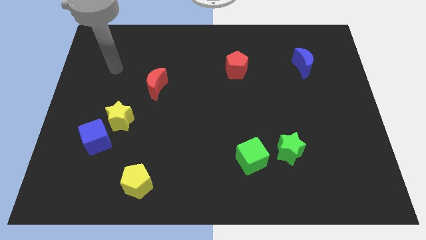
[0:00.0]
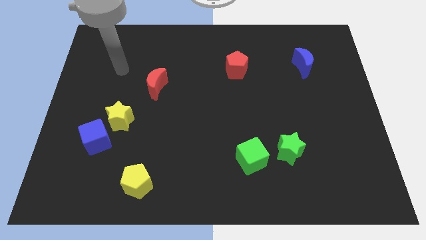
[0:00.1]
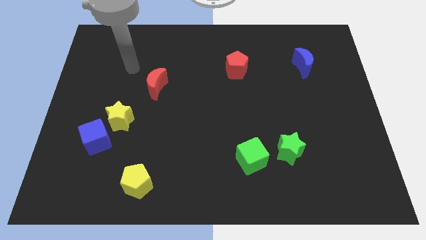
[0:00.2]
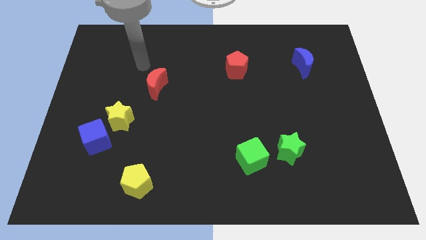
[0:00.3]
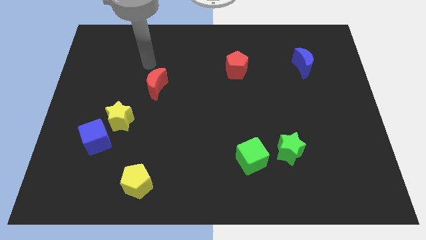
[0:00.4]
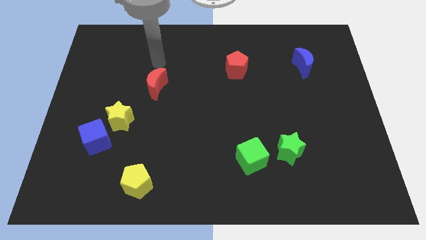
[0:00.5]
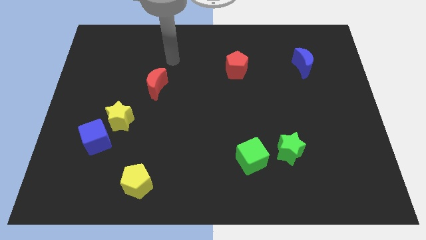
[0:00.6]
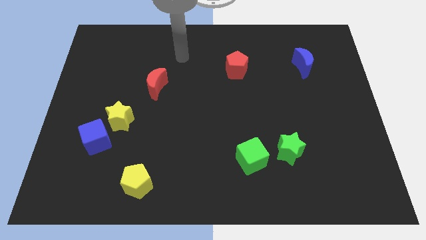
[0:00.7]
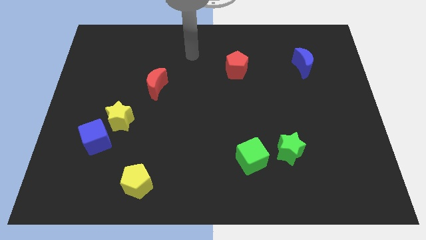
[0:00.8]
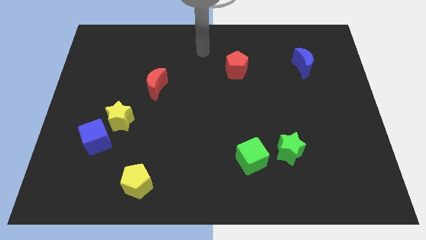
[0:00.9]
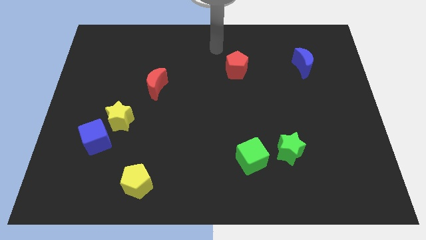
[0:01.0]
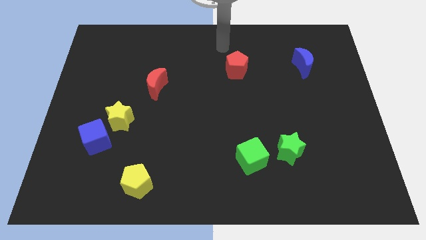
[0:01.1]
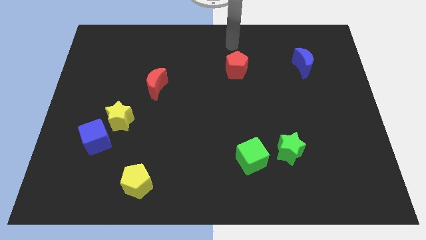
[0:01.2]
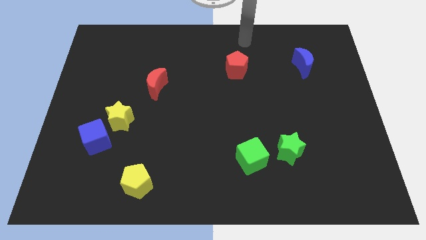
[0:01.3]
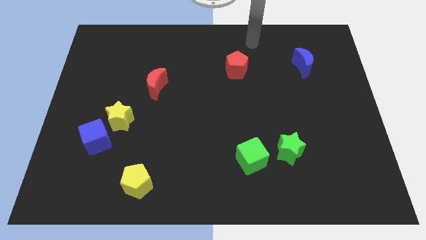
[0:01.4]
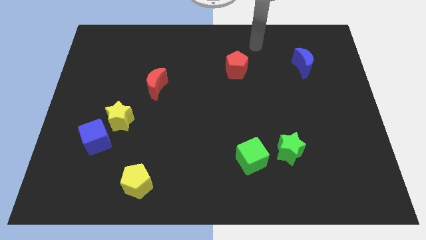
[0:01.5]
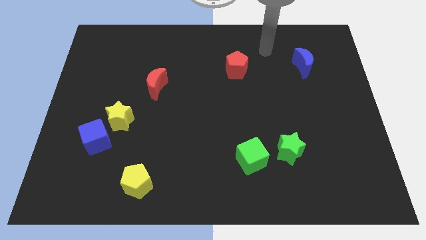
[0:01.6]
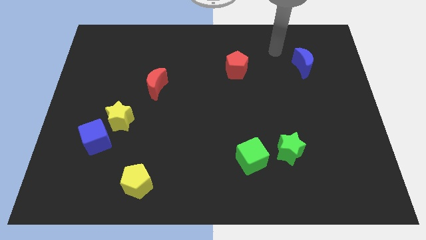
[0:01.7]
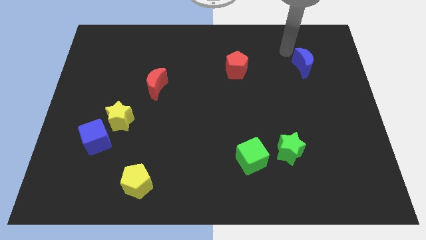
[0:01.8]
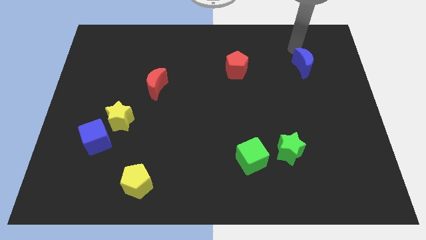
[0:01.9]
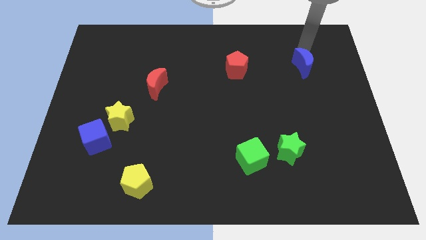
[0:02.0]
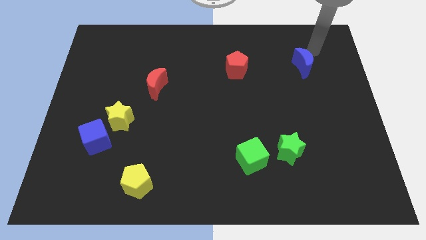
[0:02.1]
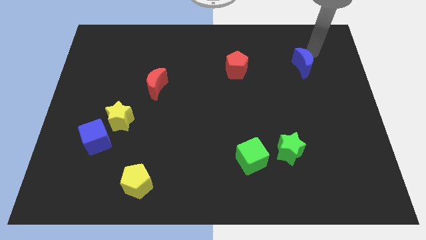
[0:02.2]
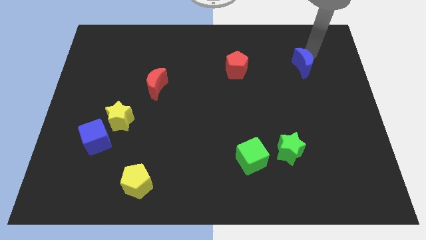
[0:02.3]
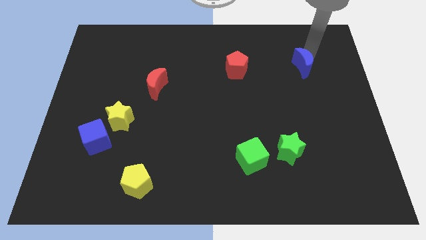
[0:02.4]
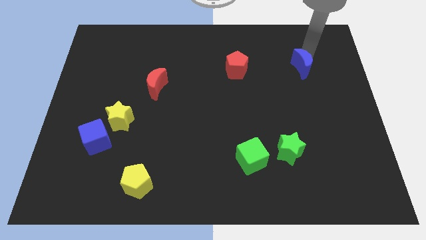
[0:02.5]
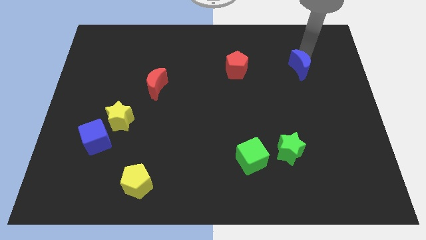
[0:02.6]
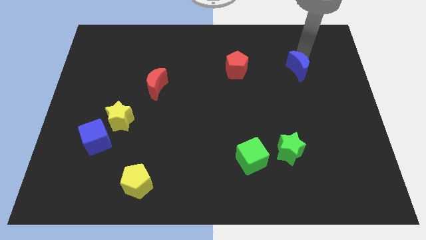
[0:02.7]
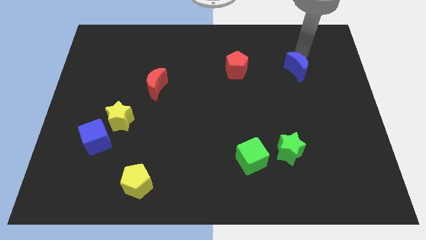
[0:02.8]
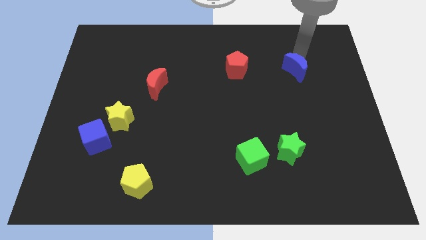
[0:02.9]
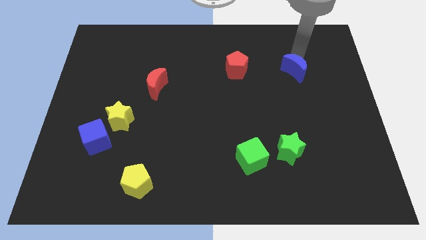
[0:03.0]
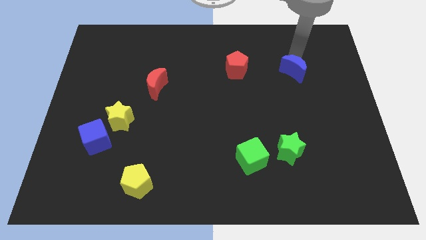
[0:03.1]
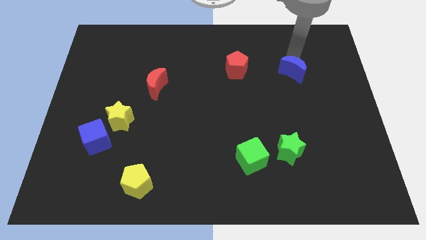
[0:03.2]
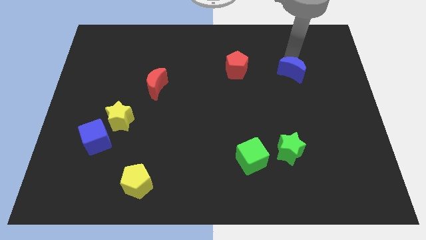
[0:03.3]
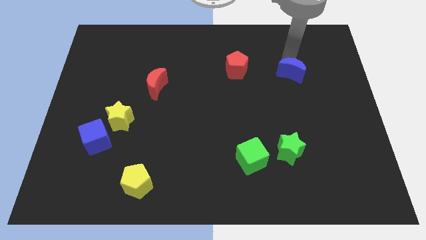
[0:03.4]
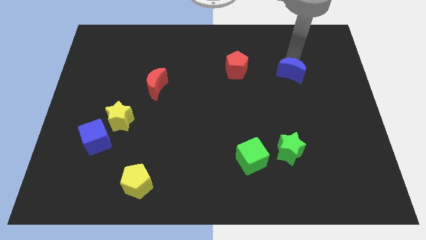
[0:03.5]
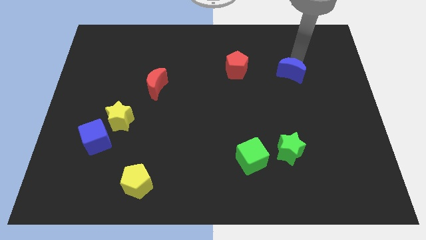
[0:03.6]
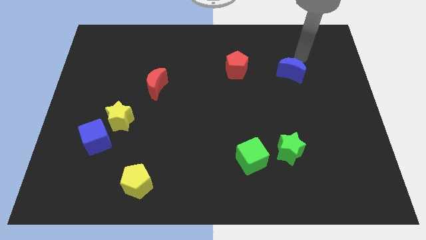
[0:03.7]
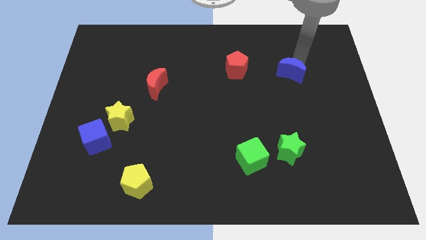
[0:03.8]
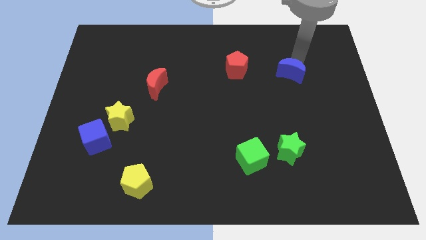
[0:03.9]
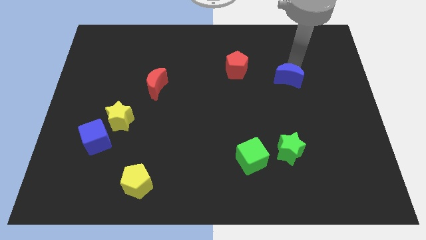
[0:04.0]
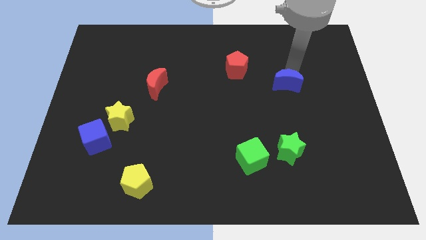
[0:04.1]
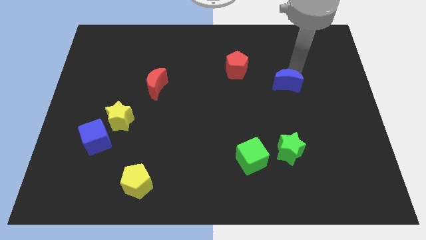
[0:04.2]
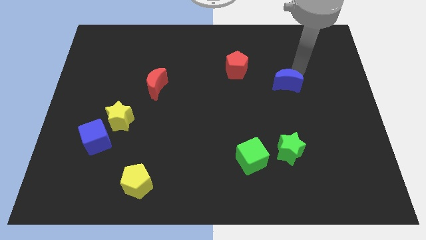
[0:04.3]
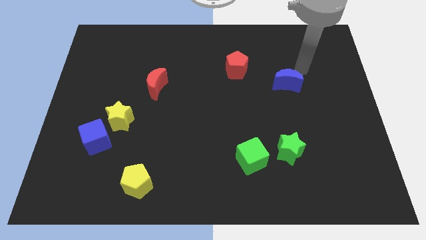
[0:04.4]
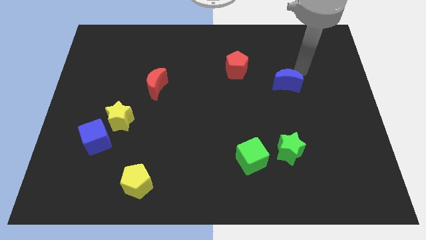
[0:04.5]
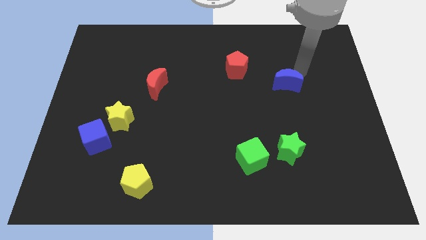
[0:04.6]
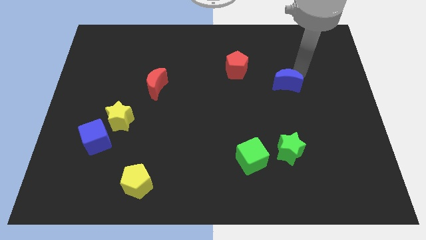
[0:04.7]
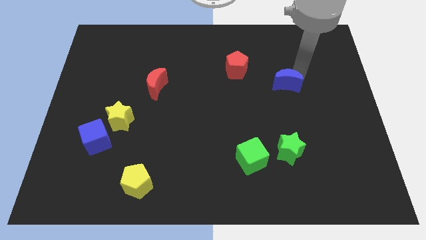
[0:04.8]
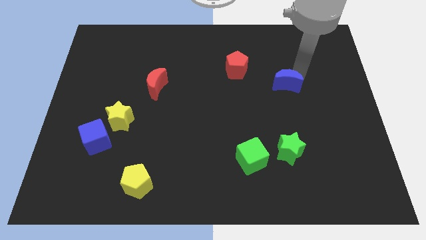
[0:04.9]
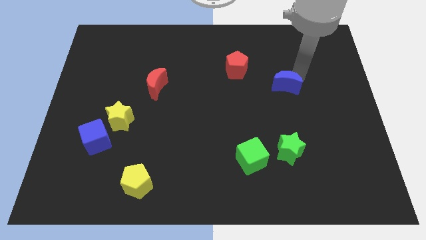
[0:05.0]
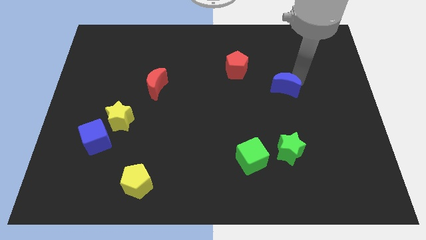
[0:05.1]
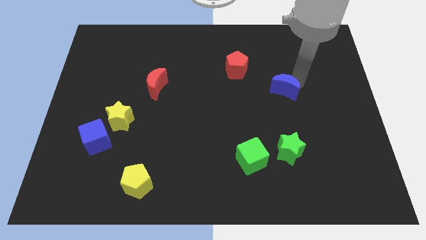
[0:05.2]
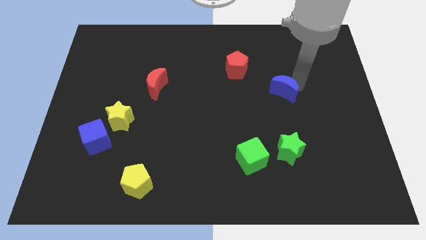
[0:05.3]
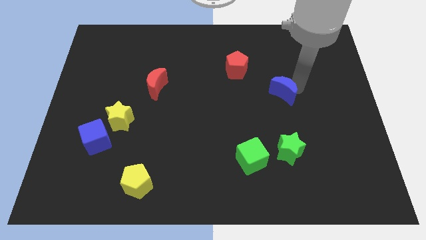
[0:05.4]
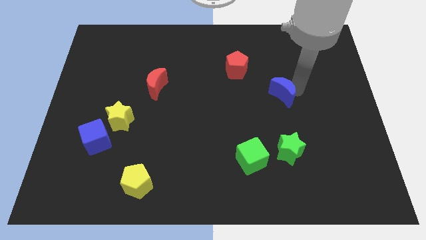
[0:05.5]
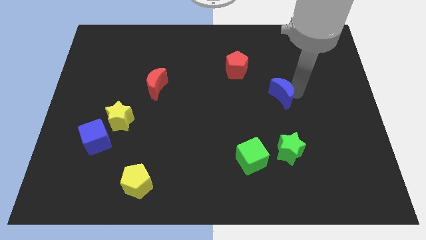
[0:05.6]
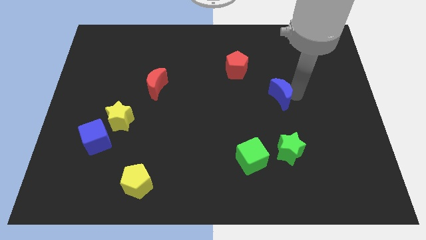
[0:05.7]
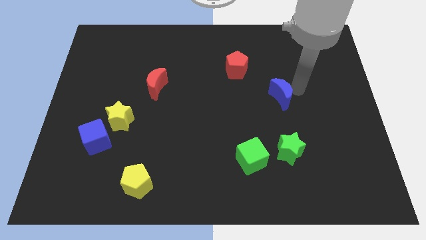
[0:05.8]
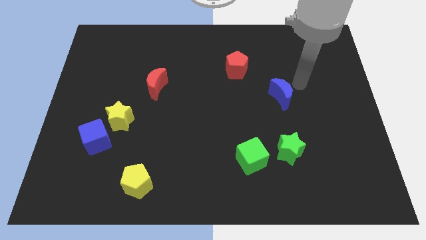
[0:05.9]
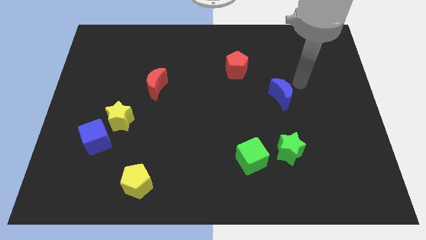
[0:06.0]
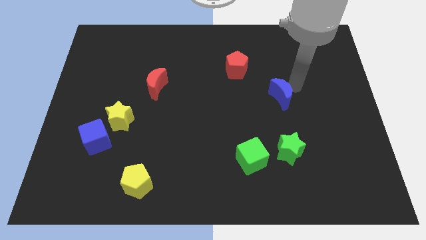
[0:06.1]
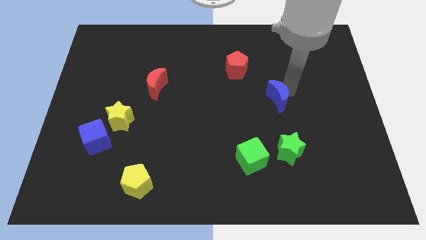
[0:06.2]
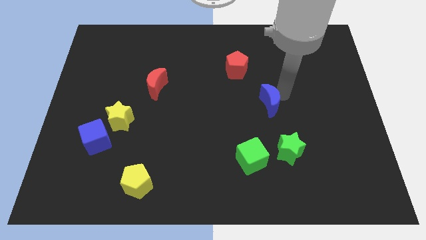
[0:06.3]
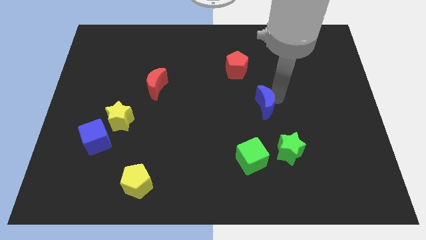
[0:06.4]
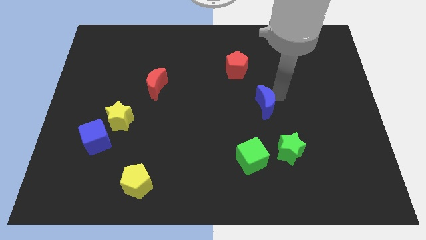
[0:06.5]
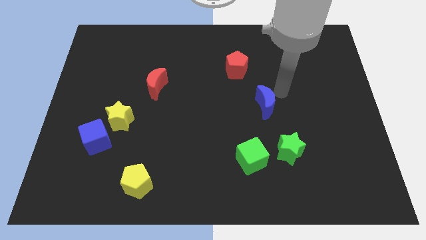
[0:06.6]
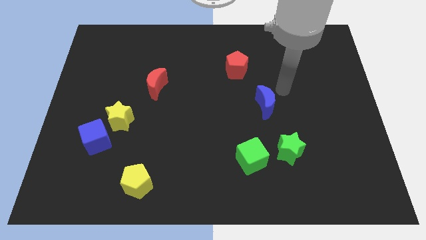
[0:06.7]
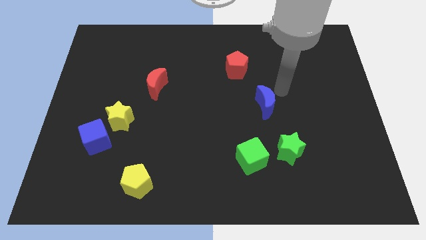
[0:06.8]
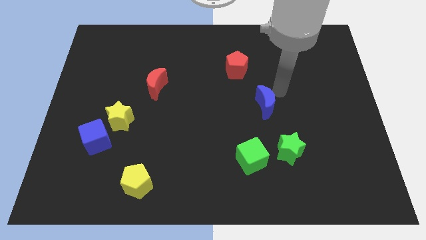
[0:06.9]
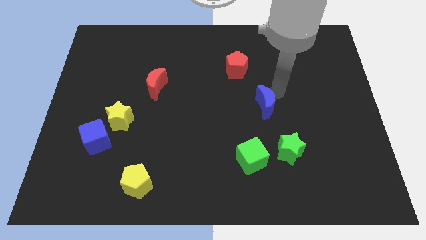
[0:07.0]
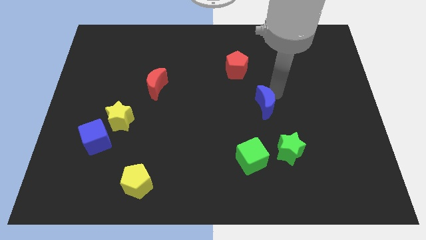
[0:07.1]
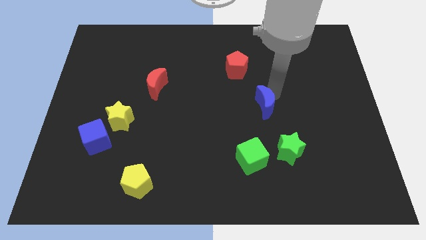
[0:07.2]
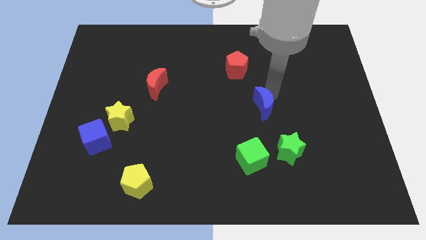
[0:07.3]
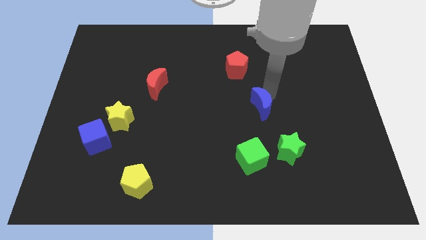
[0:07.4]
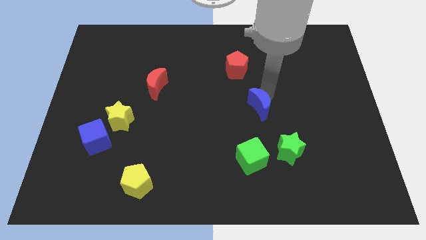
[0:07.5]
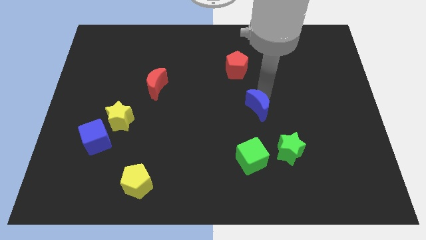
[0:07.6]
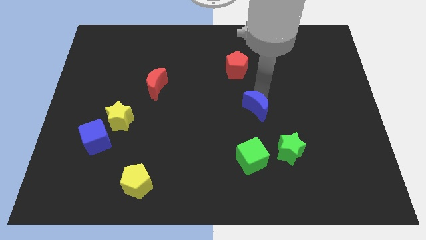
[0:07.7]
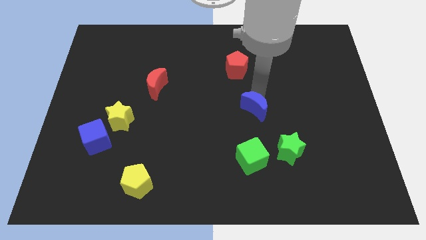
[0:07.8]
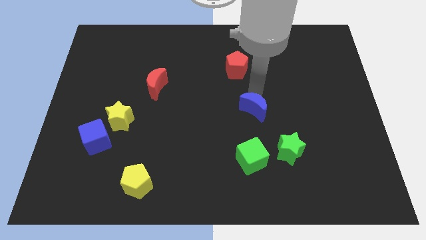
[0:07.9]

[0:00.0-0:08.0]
push the blue moon downwards and left diagonally
